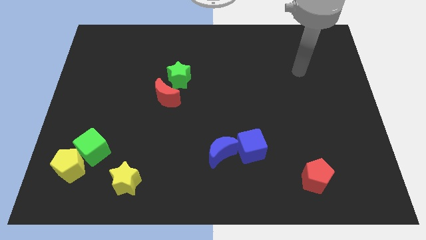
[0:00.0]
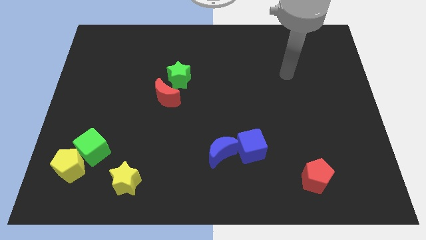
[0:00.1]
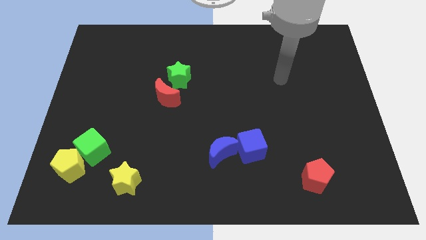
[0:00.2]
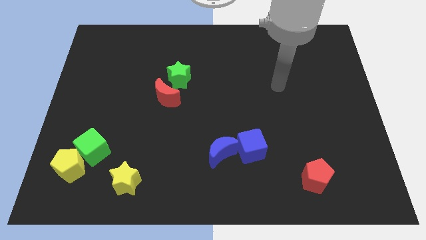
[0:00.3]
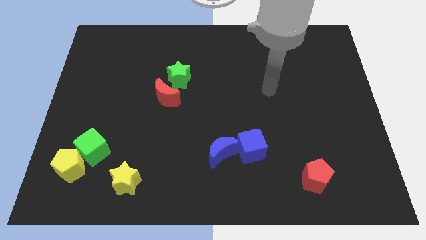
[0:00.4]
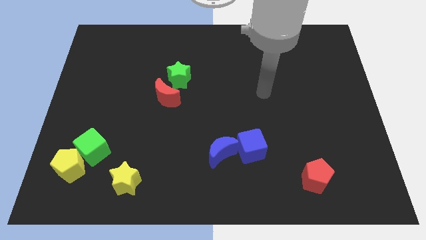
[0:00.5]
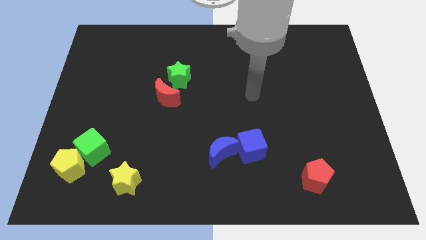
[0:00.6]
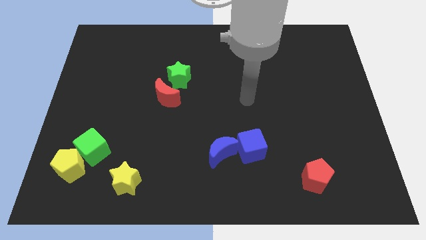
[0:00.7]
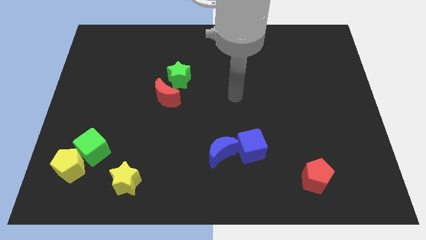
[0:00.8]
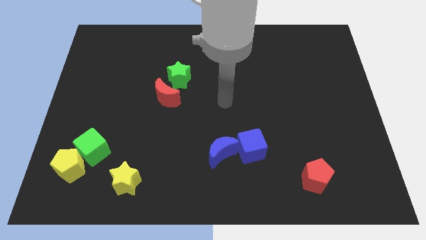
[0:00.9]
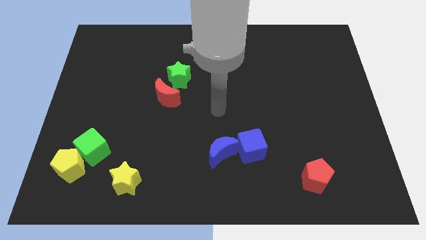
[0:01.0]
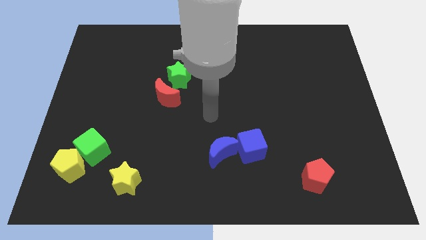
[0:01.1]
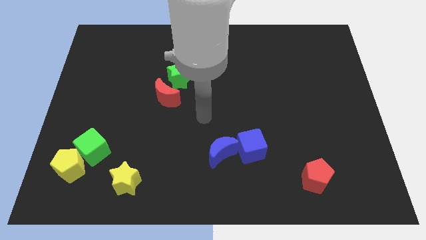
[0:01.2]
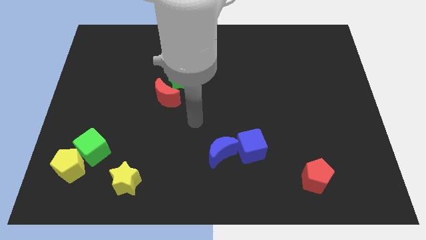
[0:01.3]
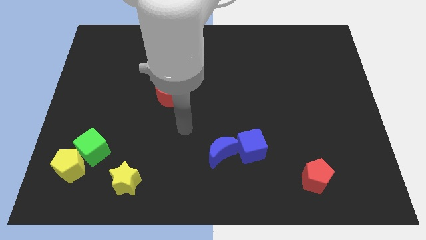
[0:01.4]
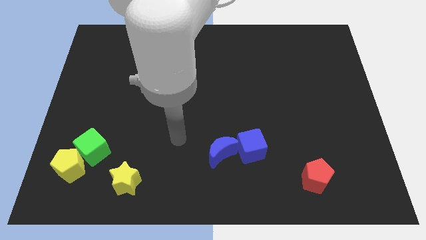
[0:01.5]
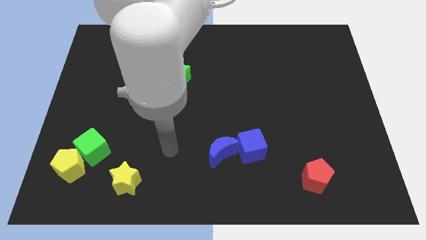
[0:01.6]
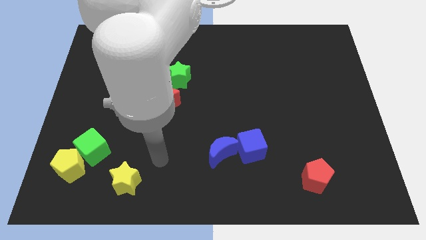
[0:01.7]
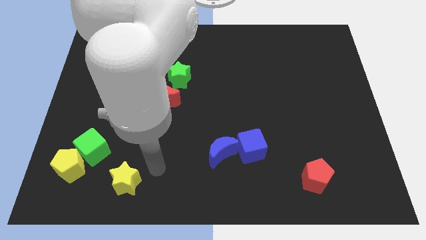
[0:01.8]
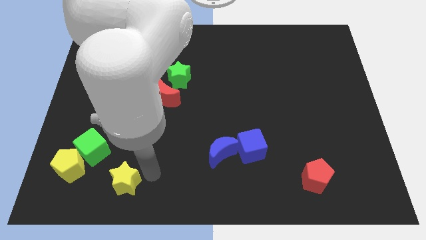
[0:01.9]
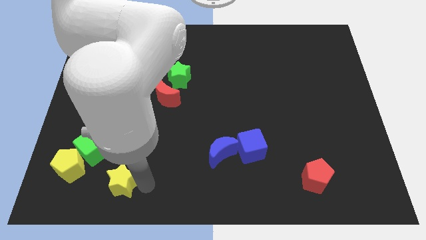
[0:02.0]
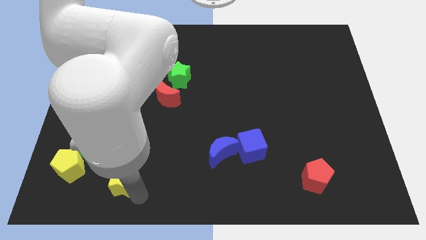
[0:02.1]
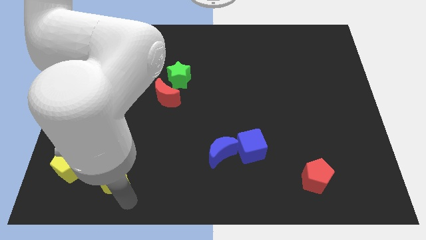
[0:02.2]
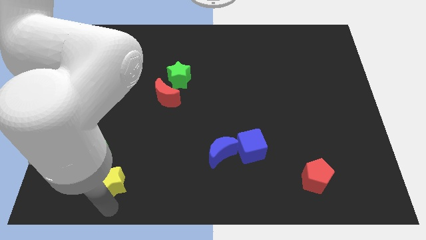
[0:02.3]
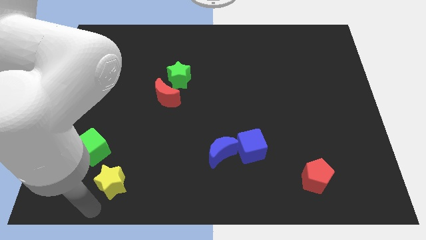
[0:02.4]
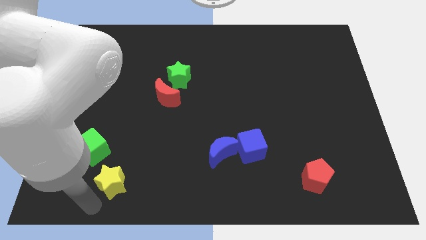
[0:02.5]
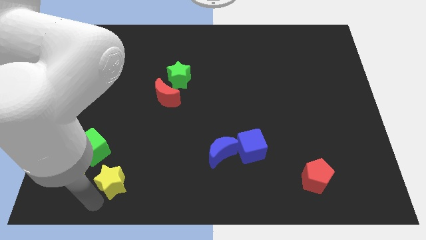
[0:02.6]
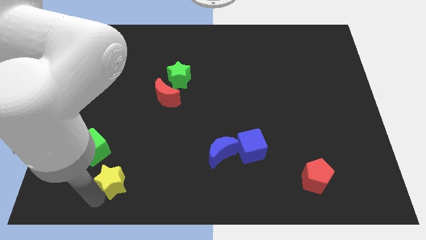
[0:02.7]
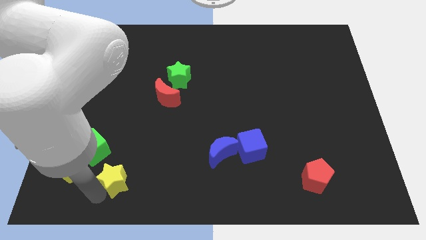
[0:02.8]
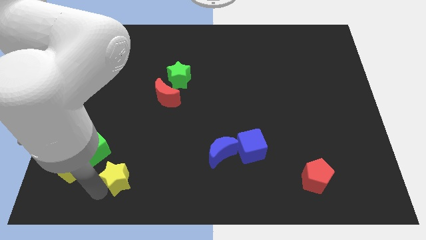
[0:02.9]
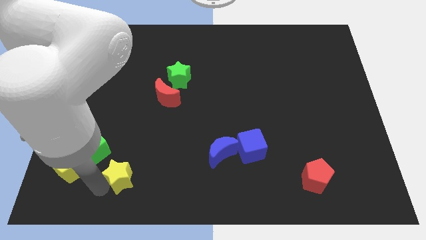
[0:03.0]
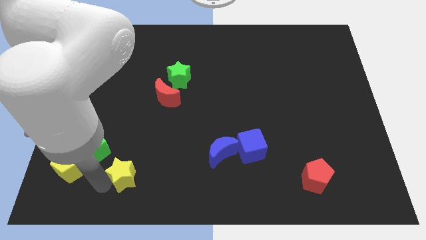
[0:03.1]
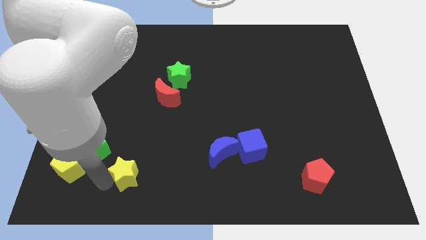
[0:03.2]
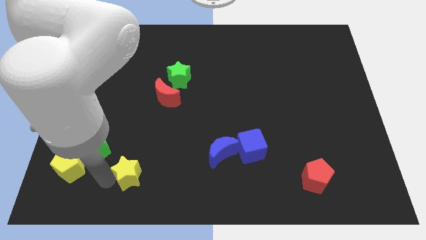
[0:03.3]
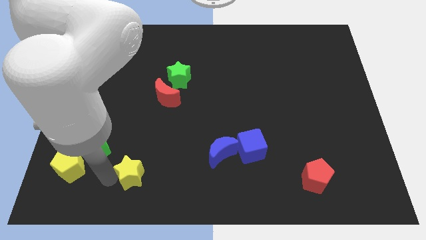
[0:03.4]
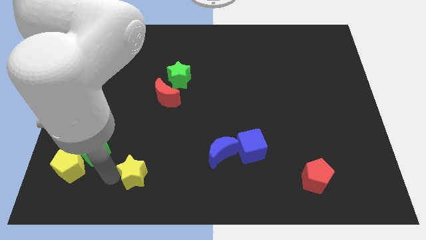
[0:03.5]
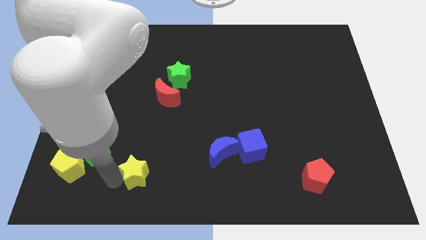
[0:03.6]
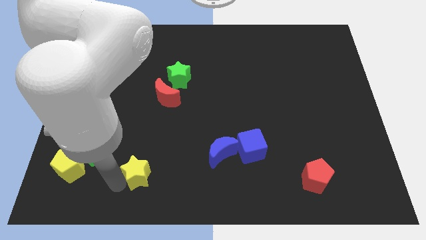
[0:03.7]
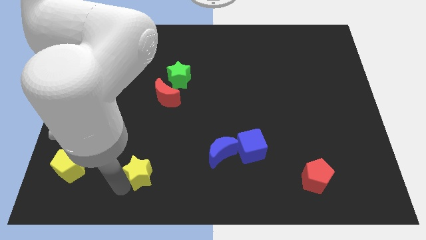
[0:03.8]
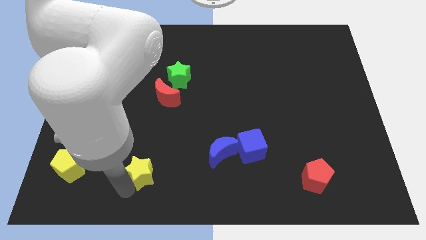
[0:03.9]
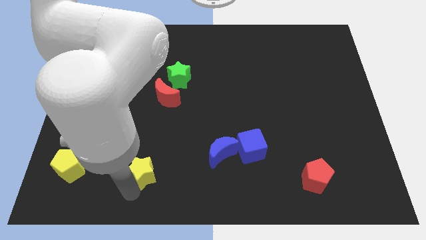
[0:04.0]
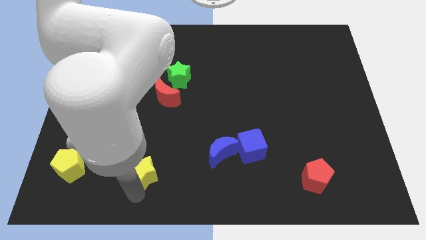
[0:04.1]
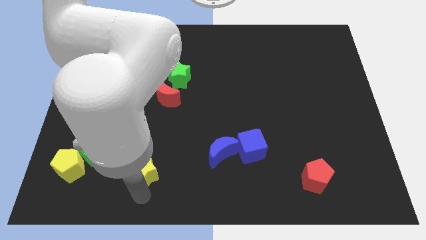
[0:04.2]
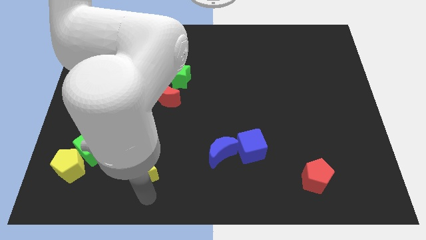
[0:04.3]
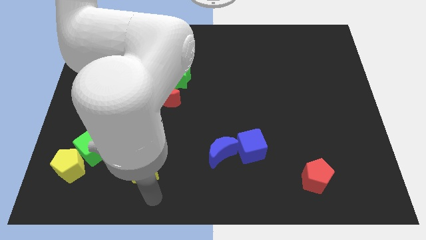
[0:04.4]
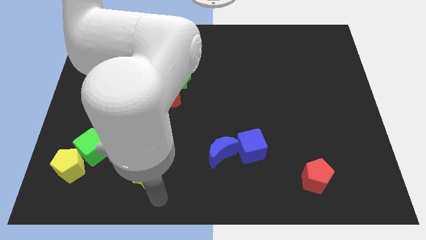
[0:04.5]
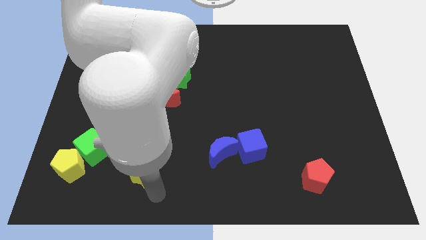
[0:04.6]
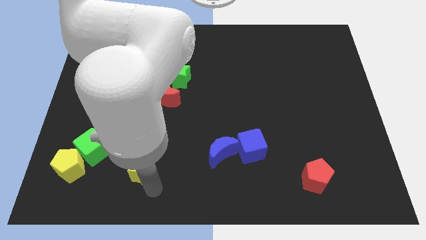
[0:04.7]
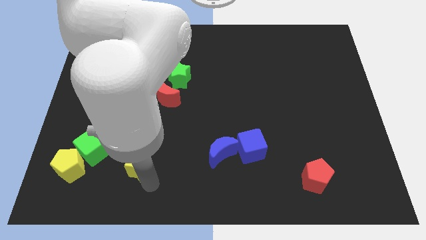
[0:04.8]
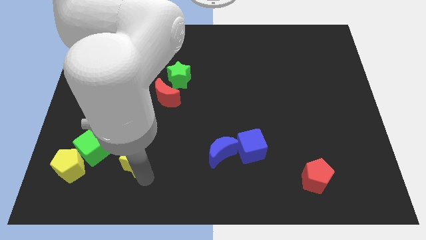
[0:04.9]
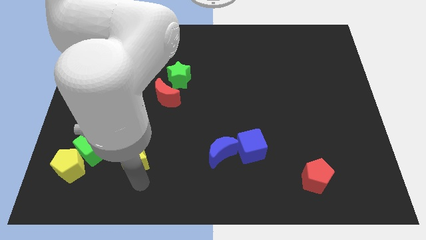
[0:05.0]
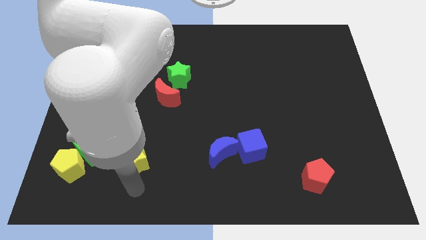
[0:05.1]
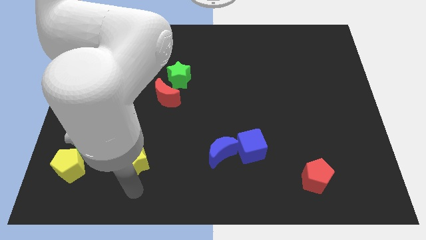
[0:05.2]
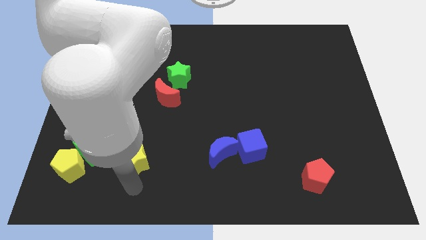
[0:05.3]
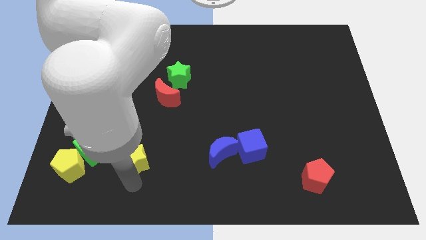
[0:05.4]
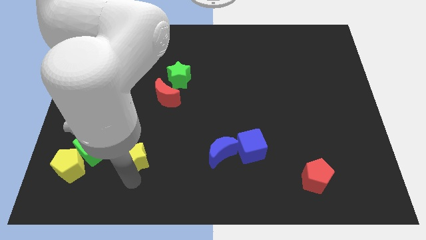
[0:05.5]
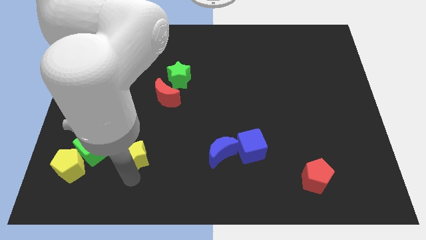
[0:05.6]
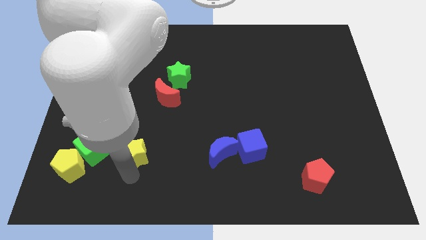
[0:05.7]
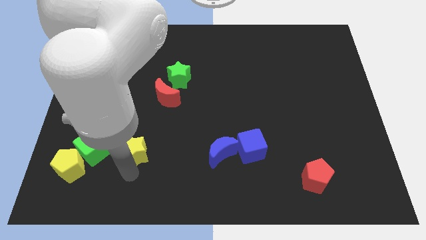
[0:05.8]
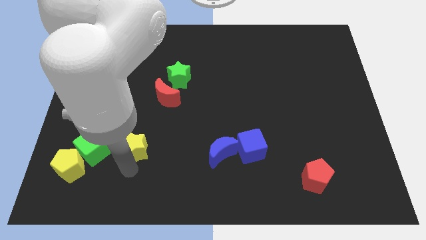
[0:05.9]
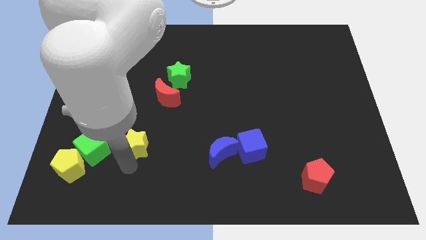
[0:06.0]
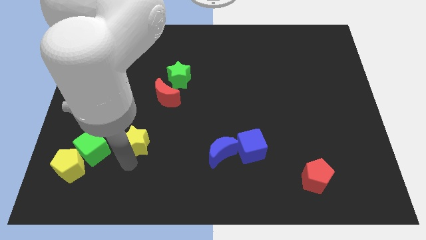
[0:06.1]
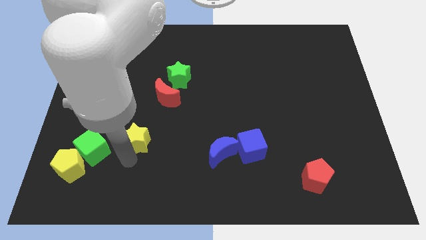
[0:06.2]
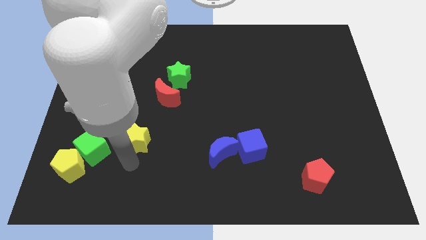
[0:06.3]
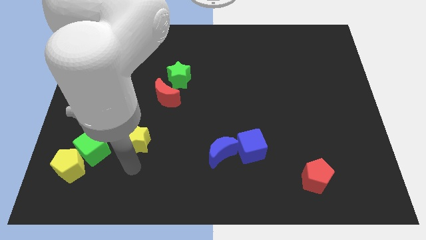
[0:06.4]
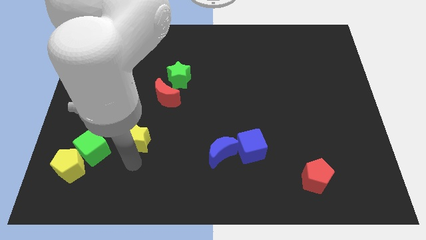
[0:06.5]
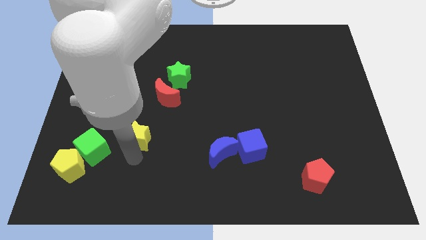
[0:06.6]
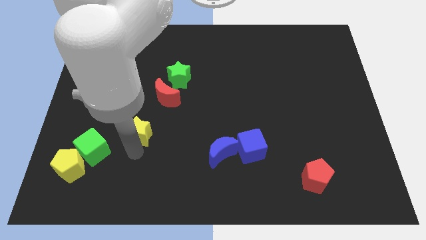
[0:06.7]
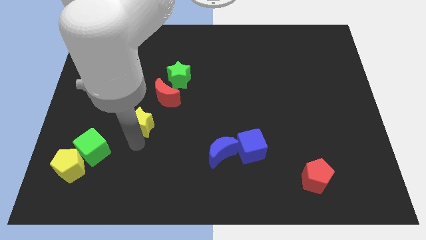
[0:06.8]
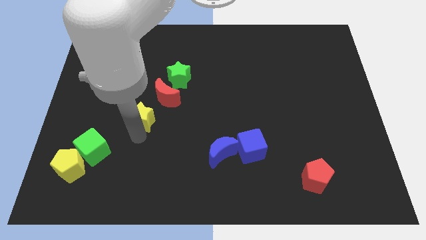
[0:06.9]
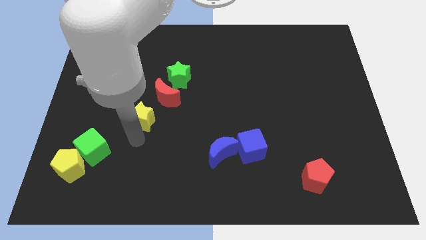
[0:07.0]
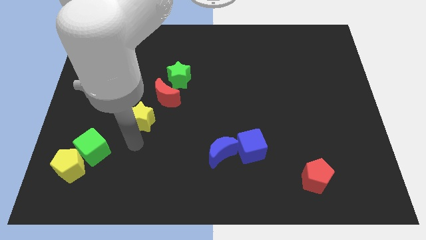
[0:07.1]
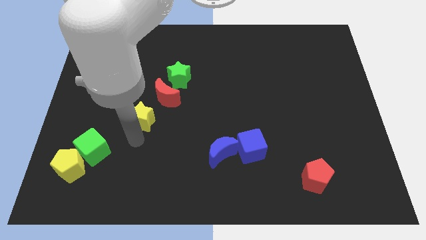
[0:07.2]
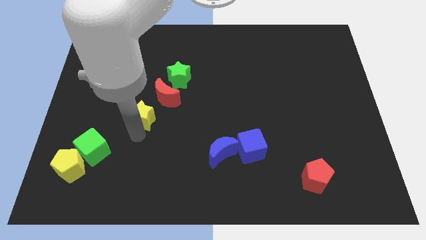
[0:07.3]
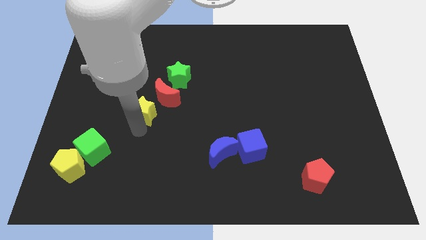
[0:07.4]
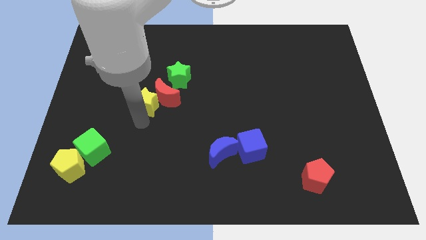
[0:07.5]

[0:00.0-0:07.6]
slide the yellow star upwards

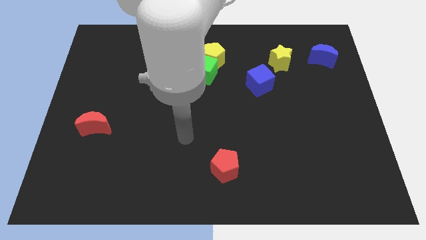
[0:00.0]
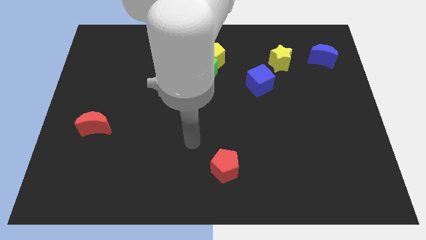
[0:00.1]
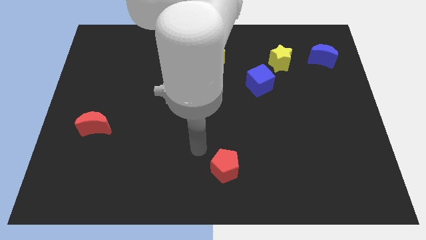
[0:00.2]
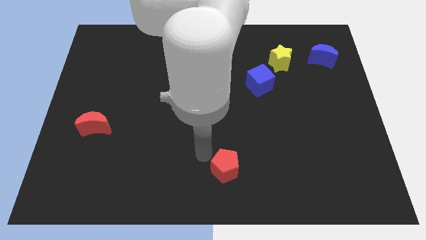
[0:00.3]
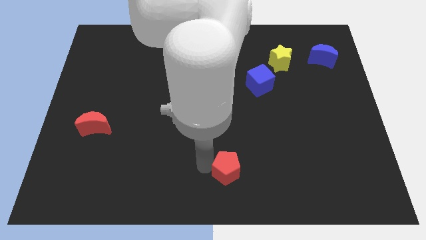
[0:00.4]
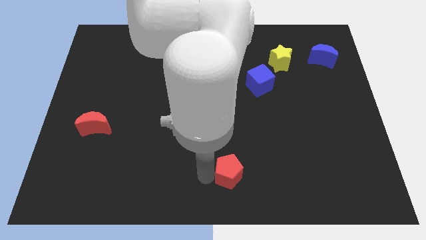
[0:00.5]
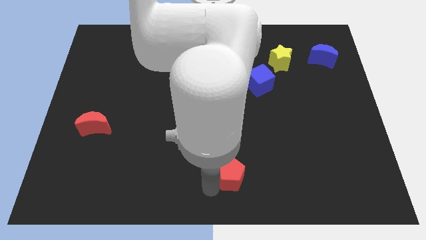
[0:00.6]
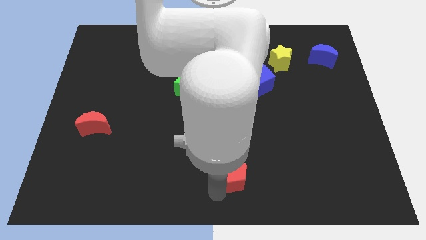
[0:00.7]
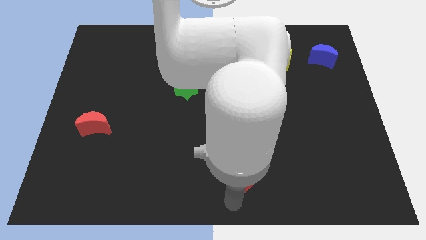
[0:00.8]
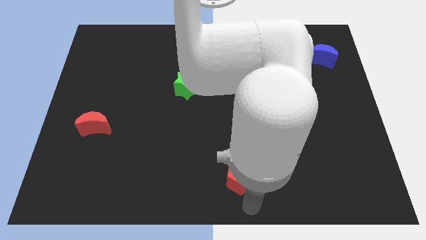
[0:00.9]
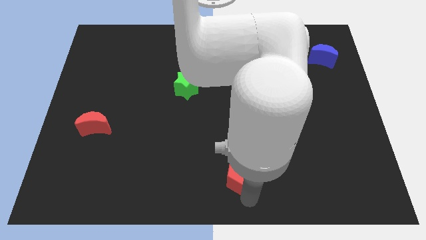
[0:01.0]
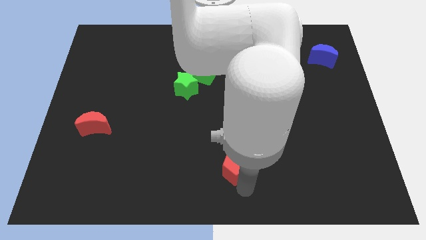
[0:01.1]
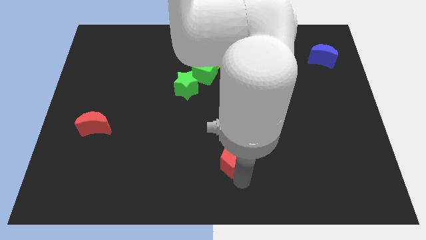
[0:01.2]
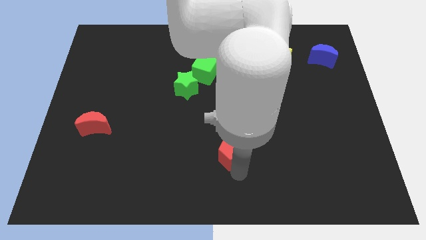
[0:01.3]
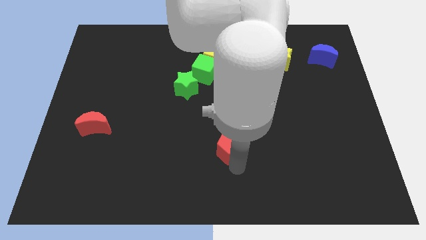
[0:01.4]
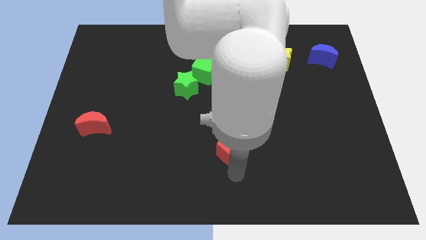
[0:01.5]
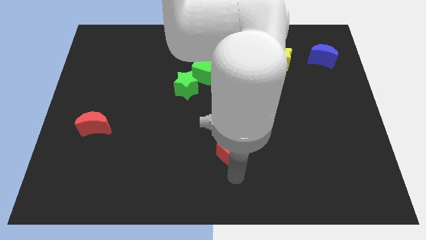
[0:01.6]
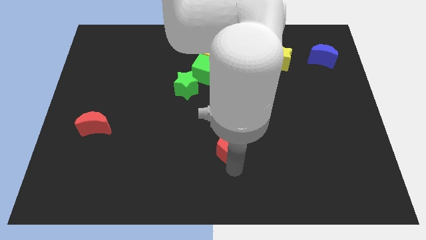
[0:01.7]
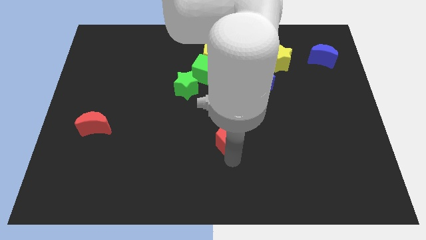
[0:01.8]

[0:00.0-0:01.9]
move the red pentagon a little bit upwards
